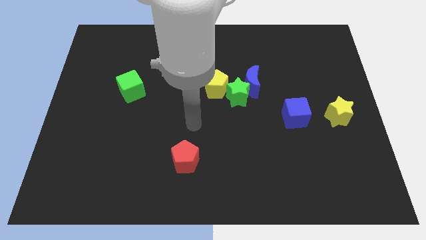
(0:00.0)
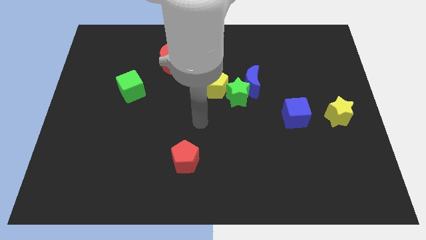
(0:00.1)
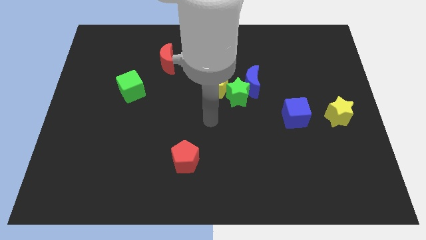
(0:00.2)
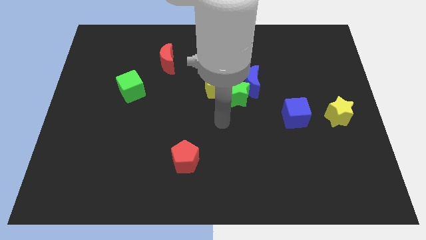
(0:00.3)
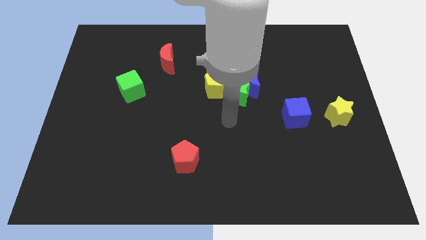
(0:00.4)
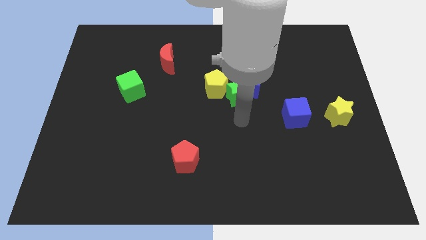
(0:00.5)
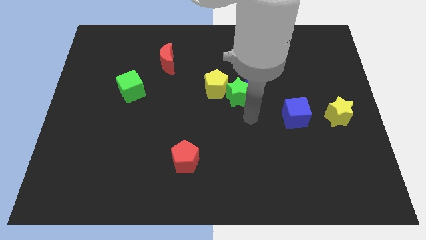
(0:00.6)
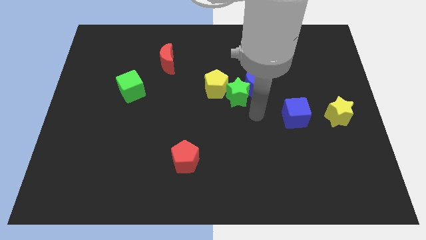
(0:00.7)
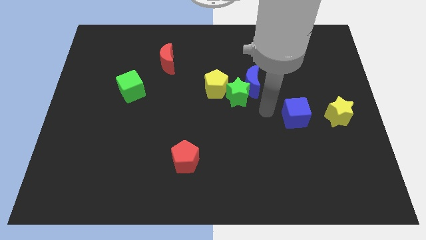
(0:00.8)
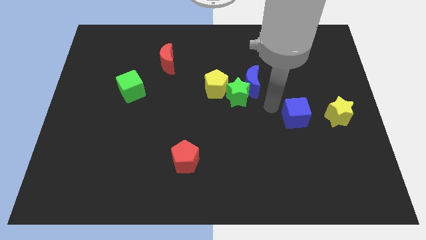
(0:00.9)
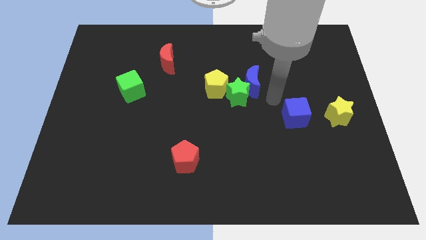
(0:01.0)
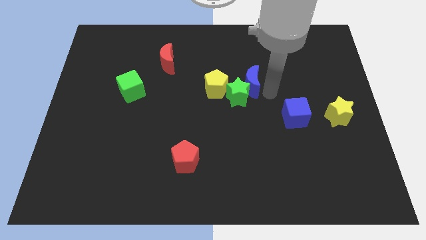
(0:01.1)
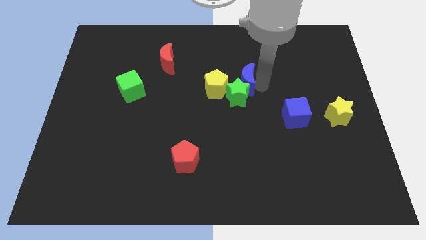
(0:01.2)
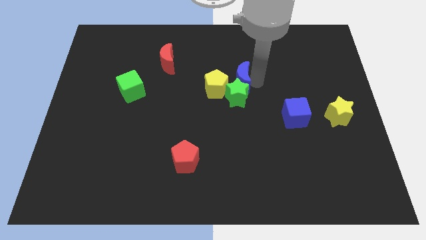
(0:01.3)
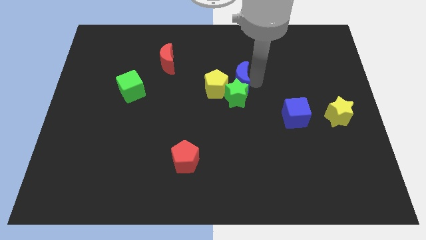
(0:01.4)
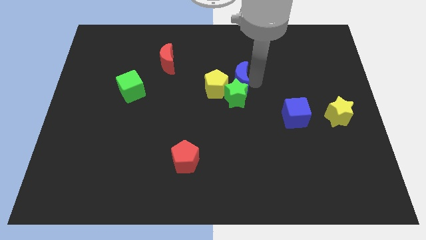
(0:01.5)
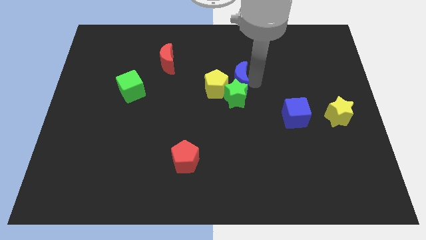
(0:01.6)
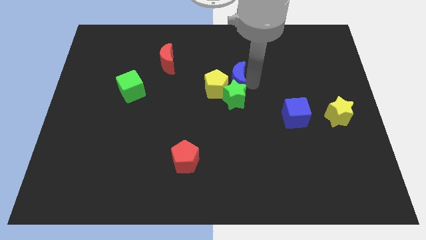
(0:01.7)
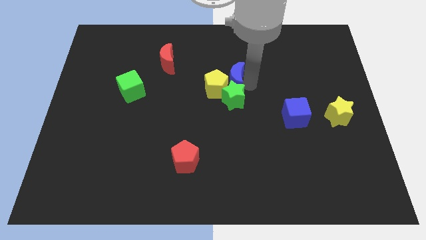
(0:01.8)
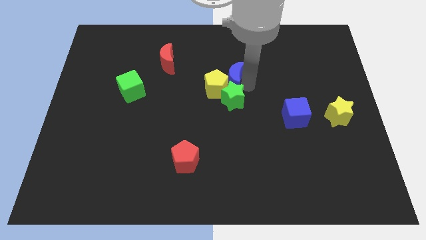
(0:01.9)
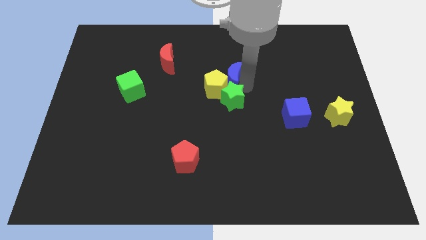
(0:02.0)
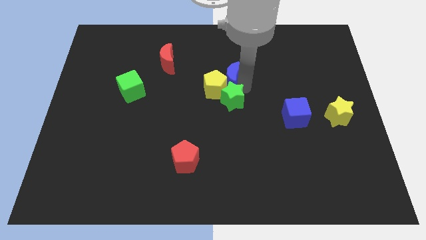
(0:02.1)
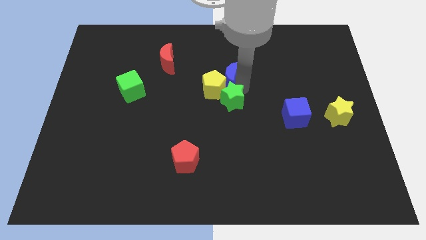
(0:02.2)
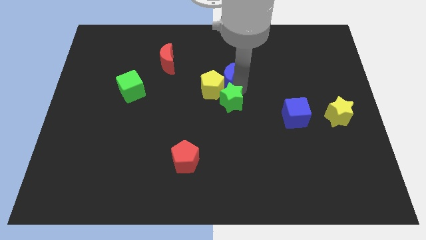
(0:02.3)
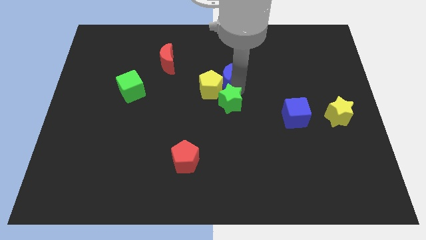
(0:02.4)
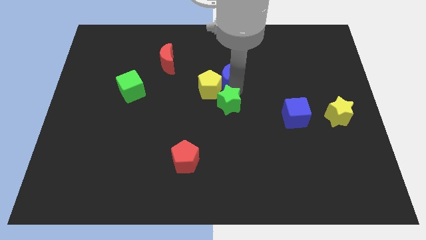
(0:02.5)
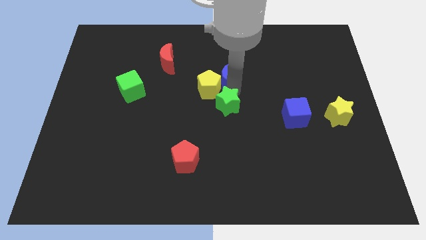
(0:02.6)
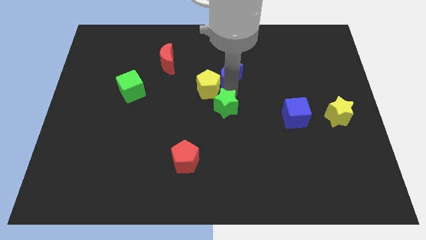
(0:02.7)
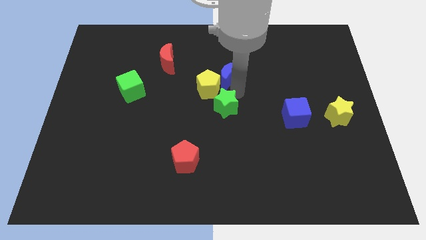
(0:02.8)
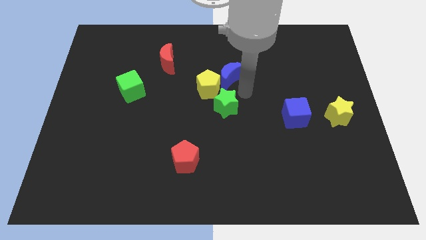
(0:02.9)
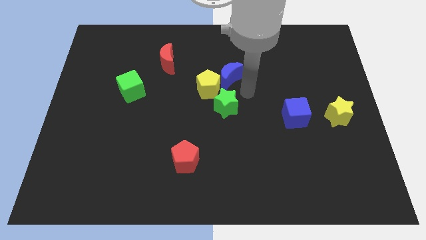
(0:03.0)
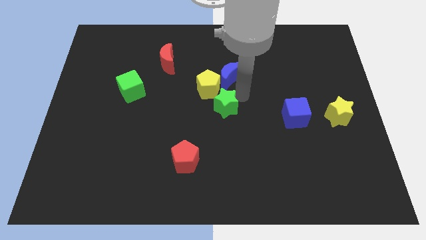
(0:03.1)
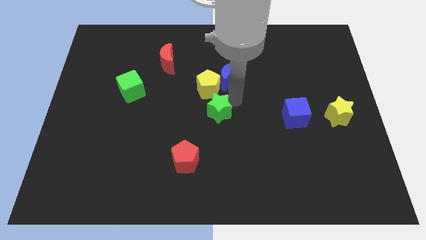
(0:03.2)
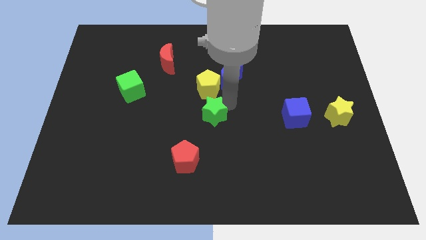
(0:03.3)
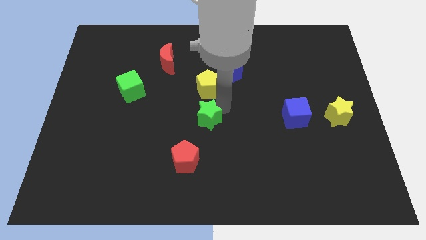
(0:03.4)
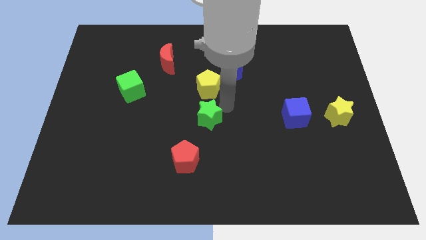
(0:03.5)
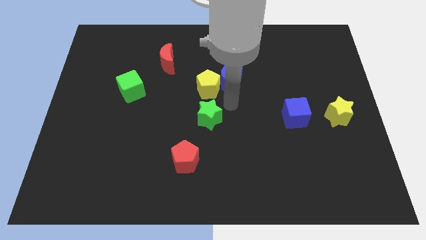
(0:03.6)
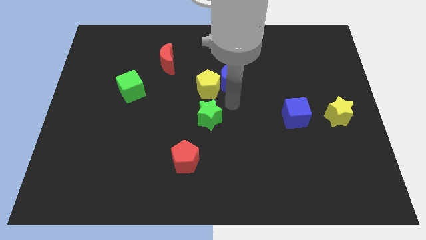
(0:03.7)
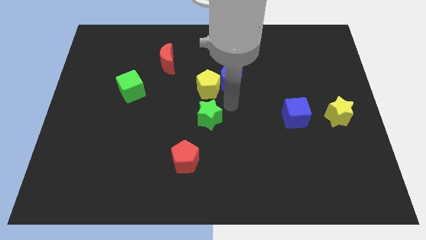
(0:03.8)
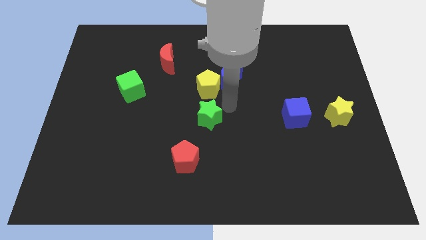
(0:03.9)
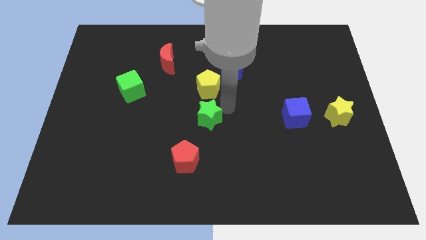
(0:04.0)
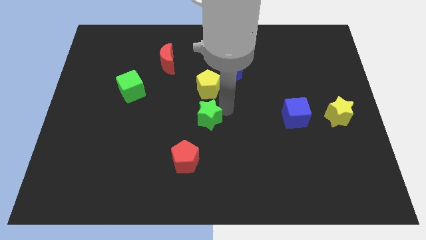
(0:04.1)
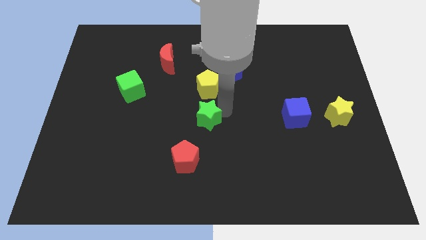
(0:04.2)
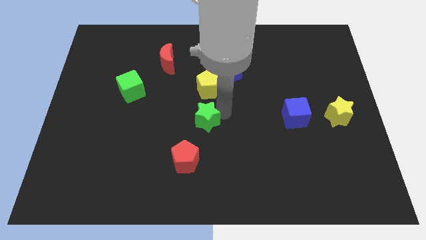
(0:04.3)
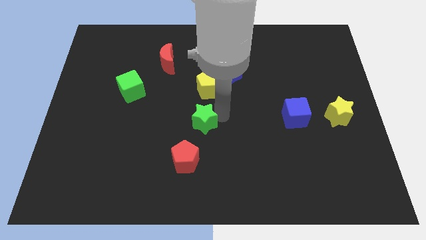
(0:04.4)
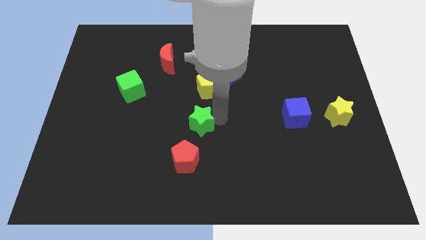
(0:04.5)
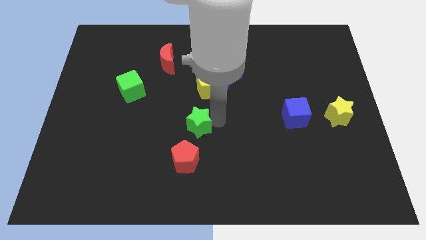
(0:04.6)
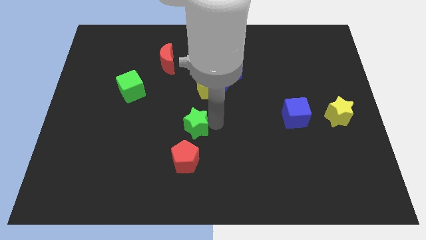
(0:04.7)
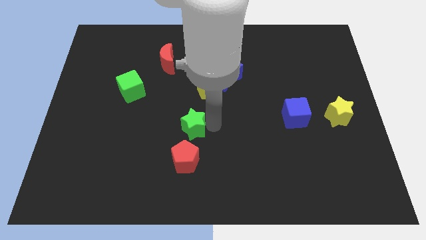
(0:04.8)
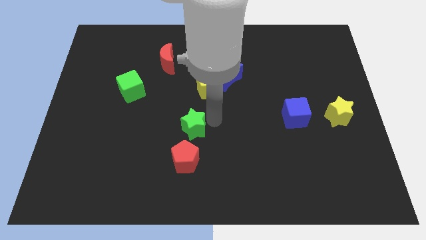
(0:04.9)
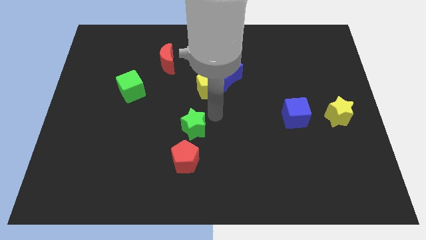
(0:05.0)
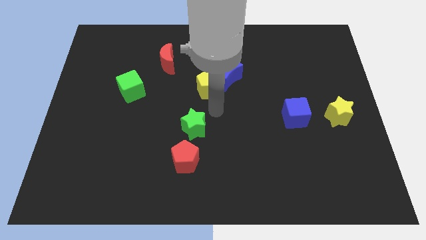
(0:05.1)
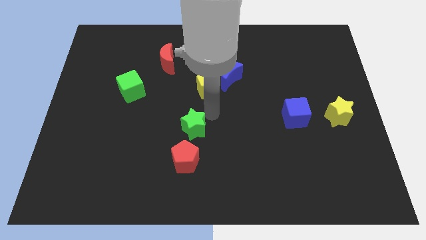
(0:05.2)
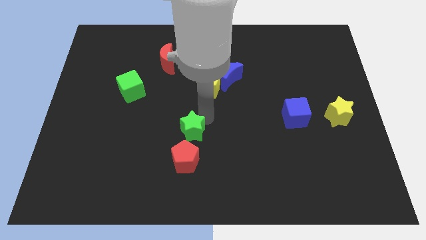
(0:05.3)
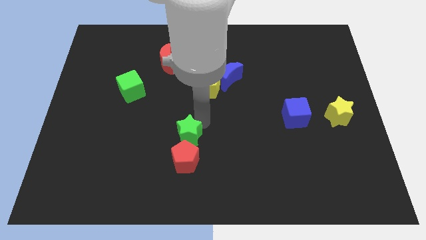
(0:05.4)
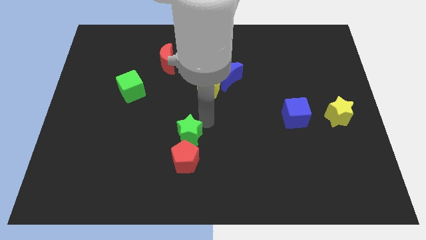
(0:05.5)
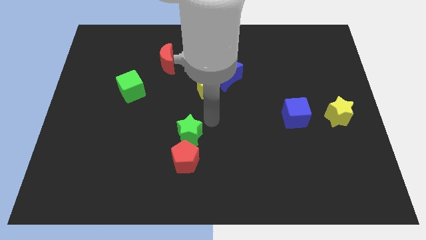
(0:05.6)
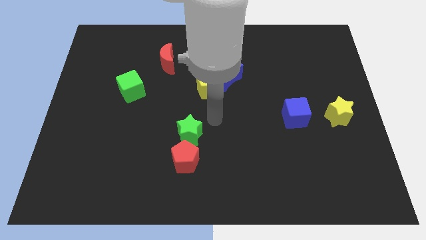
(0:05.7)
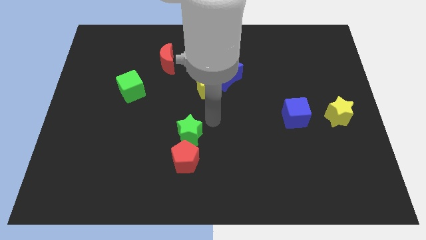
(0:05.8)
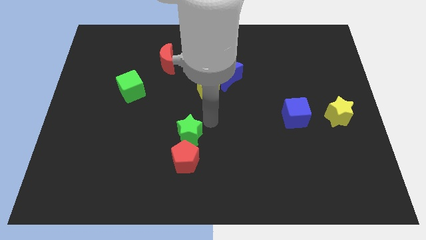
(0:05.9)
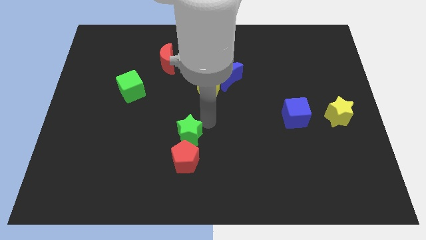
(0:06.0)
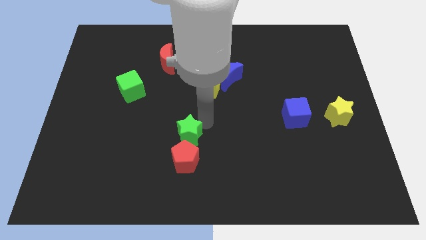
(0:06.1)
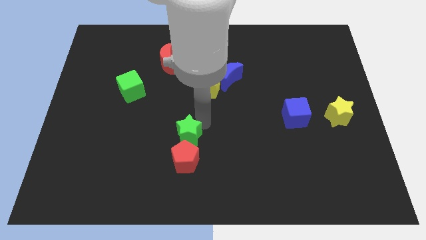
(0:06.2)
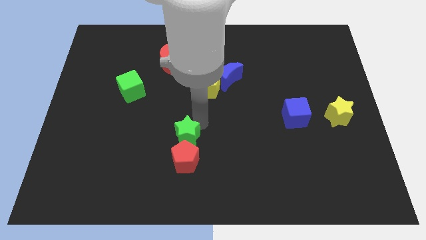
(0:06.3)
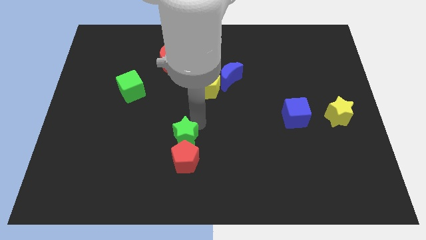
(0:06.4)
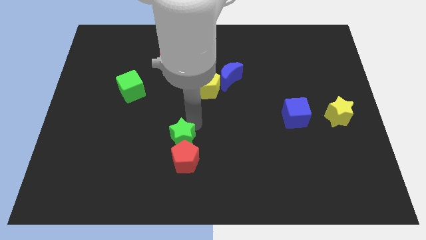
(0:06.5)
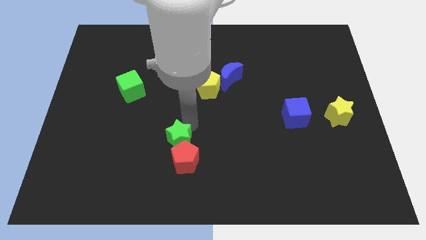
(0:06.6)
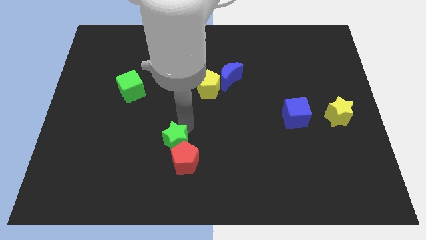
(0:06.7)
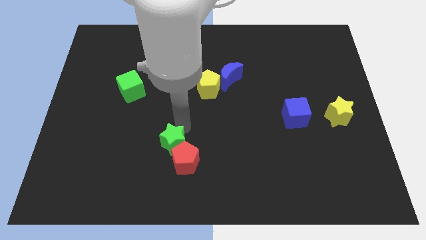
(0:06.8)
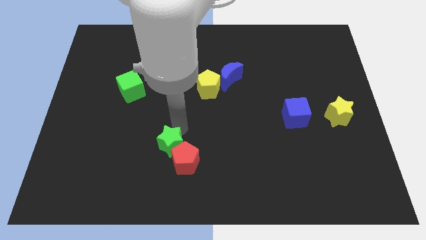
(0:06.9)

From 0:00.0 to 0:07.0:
move the green star downwards and to the left diagonally

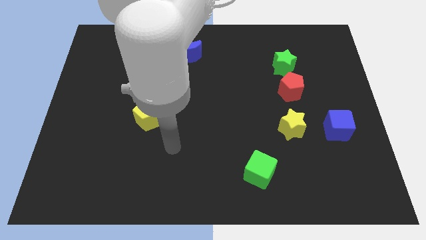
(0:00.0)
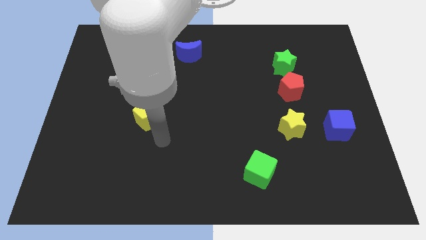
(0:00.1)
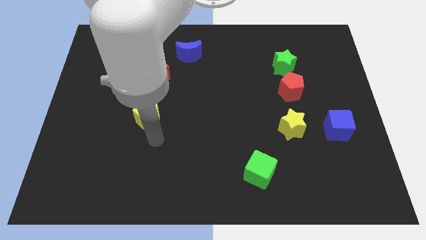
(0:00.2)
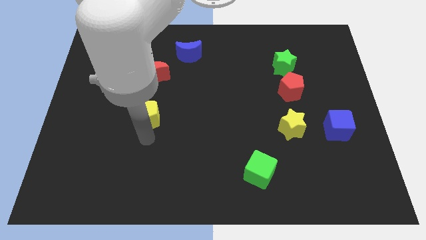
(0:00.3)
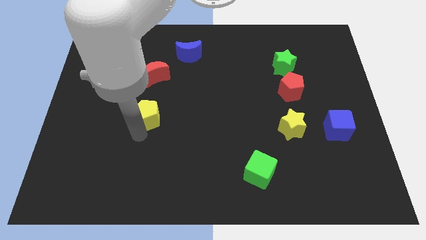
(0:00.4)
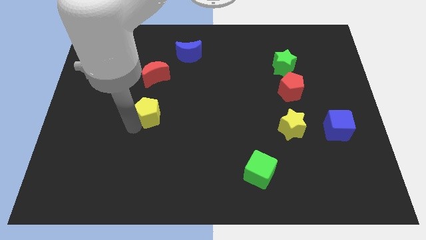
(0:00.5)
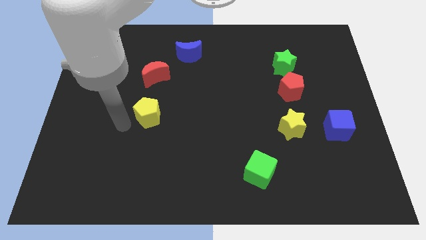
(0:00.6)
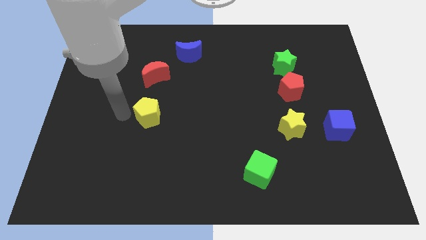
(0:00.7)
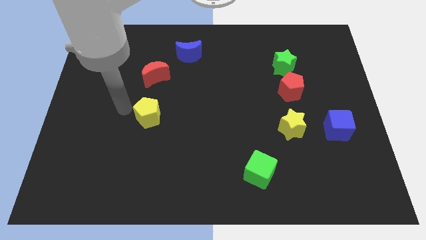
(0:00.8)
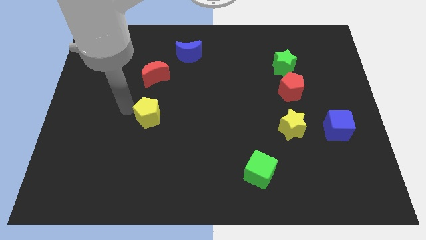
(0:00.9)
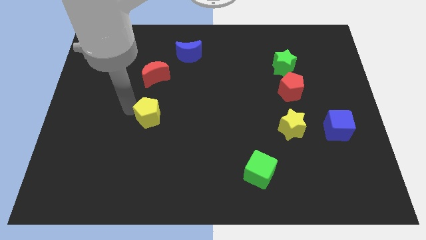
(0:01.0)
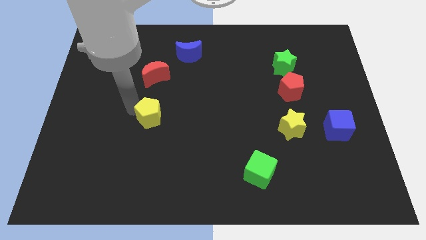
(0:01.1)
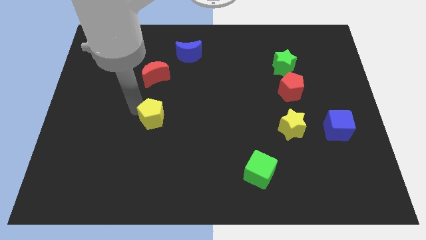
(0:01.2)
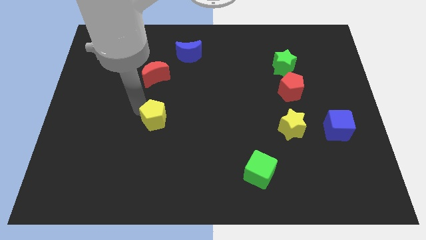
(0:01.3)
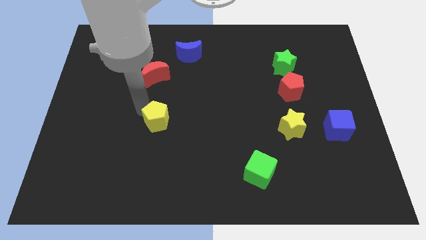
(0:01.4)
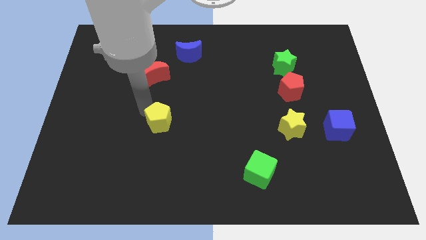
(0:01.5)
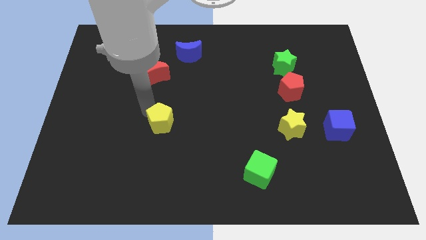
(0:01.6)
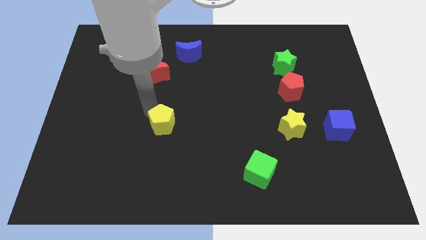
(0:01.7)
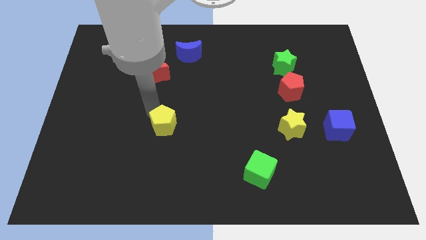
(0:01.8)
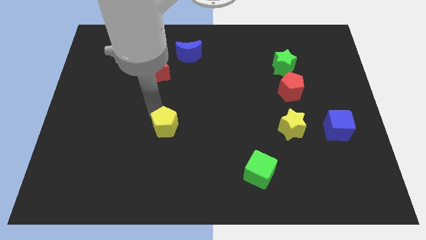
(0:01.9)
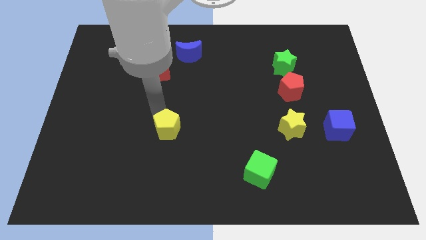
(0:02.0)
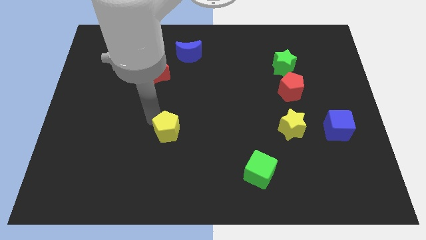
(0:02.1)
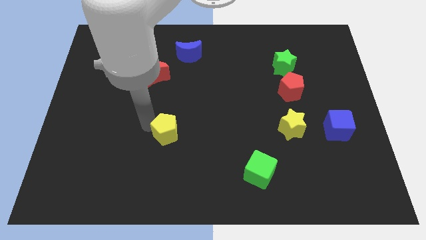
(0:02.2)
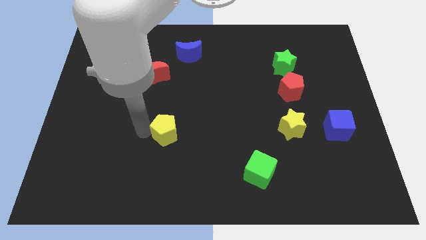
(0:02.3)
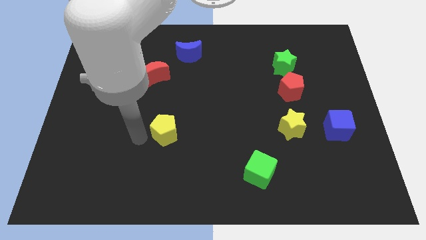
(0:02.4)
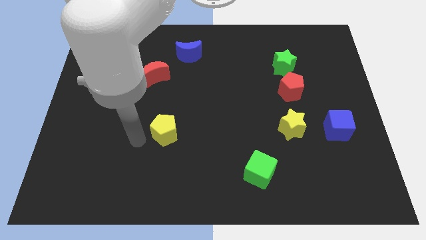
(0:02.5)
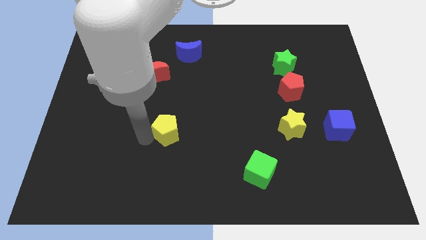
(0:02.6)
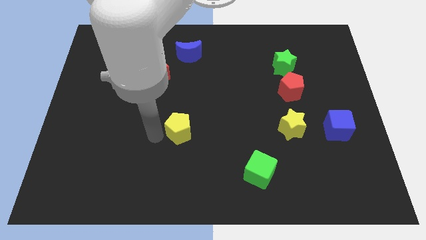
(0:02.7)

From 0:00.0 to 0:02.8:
slightly push the yellow pentagon to the right
